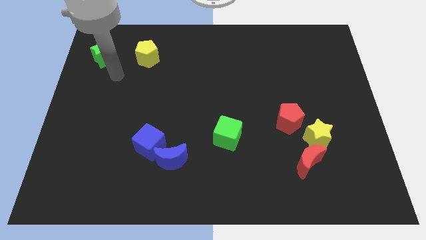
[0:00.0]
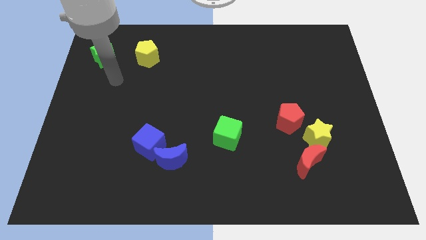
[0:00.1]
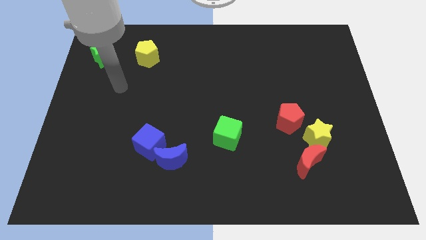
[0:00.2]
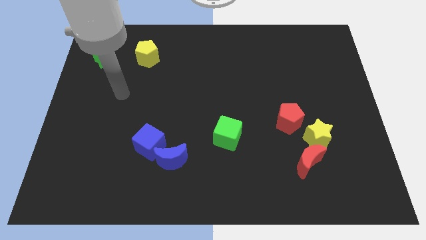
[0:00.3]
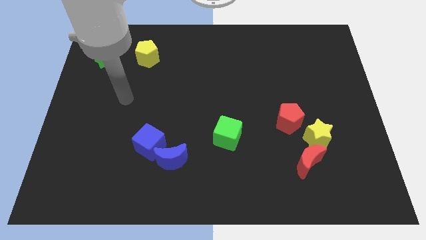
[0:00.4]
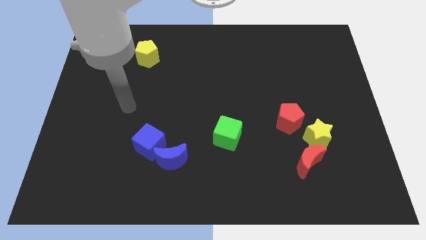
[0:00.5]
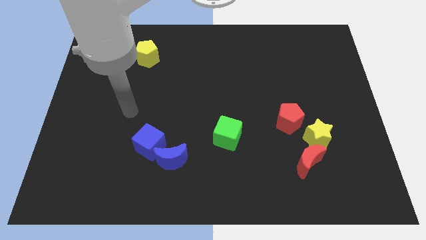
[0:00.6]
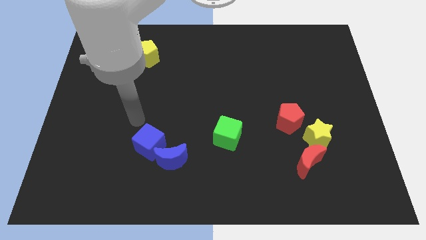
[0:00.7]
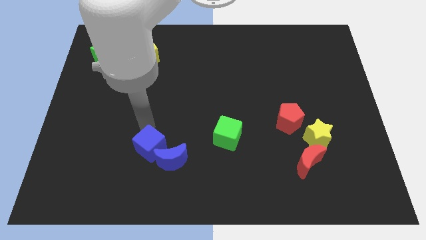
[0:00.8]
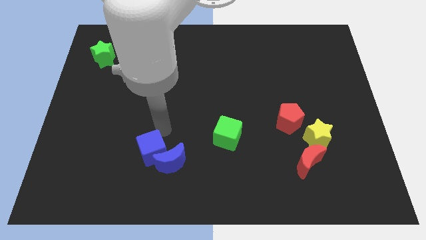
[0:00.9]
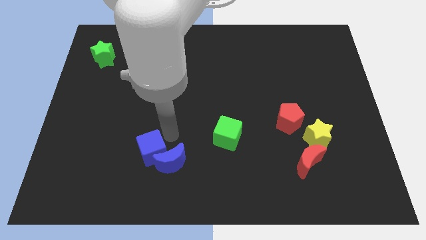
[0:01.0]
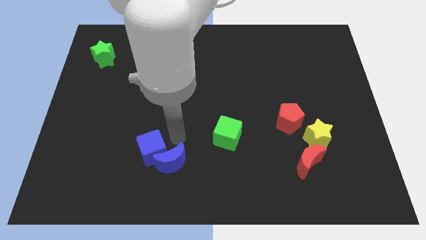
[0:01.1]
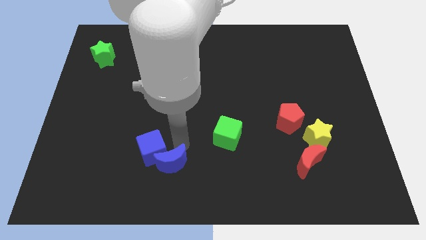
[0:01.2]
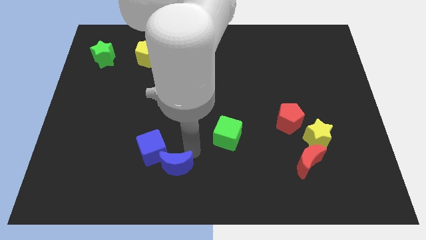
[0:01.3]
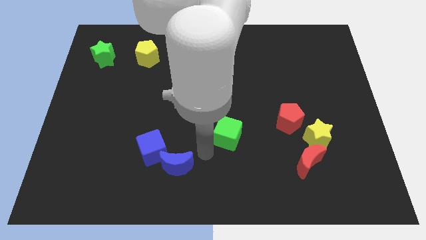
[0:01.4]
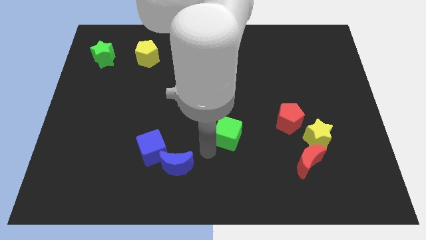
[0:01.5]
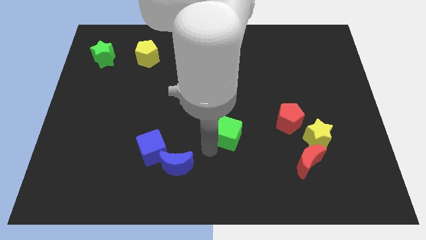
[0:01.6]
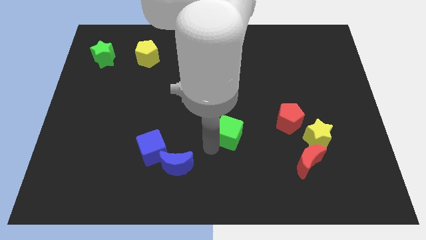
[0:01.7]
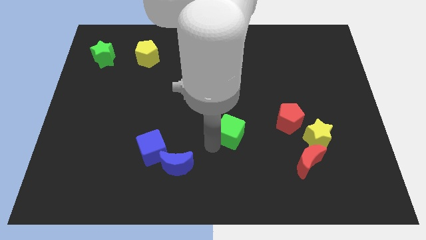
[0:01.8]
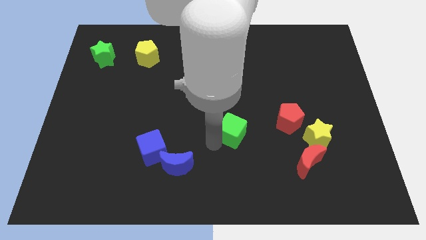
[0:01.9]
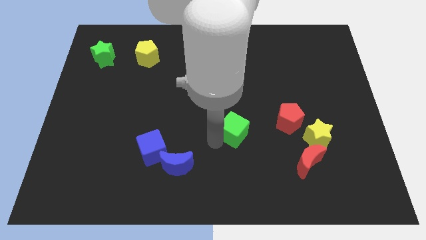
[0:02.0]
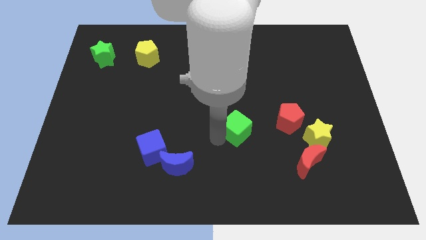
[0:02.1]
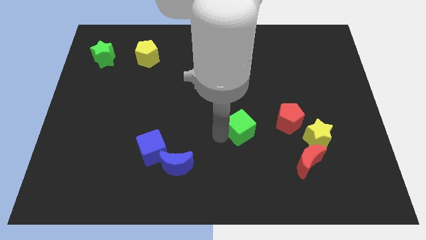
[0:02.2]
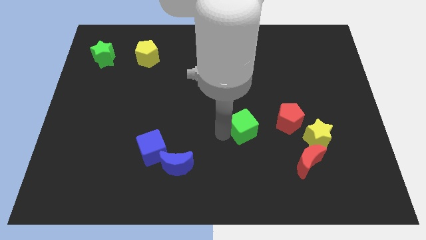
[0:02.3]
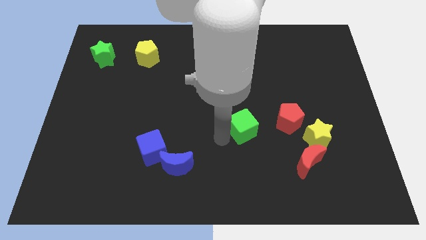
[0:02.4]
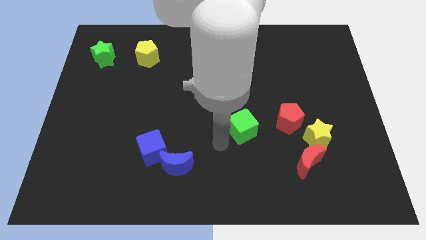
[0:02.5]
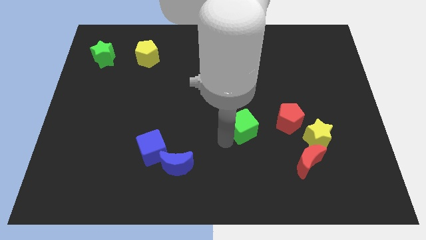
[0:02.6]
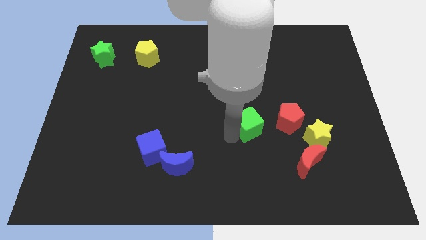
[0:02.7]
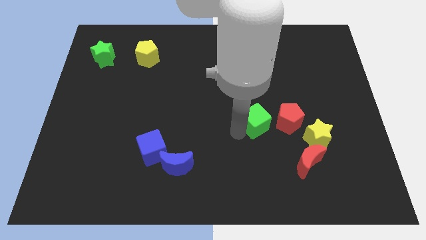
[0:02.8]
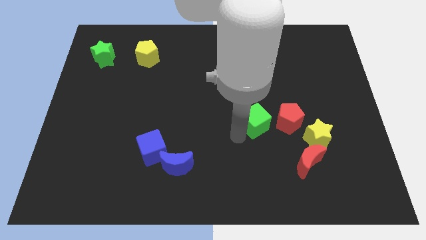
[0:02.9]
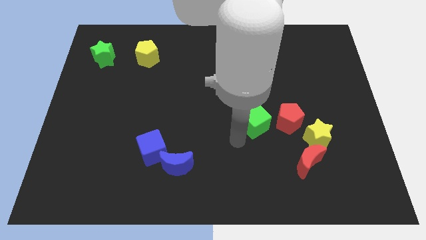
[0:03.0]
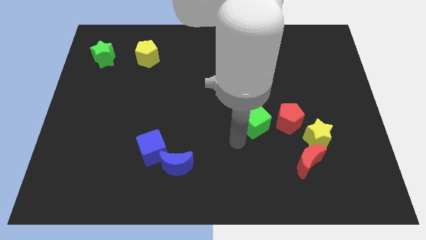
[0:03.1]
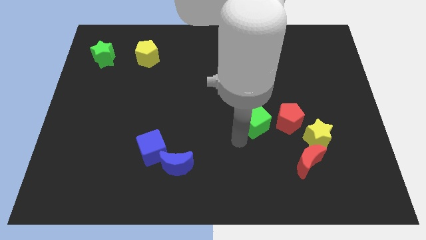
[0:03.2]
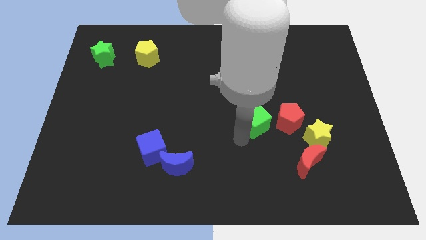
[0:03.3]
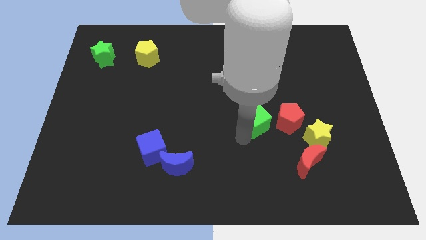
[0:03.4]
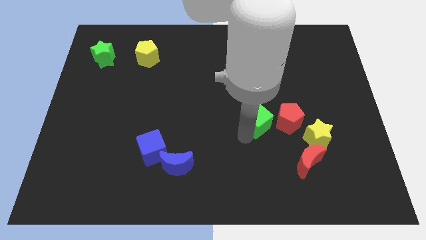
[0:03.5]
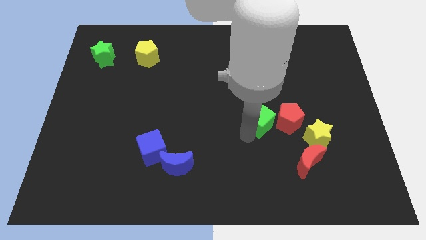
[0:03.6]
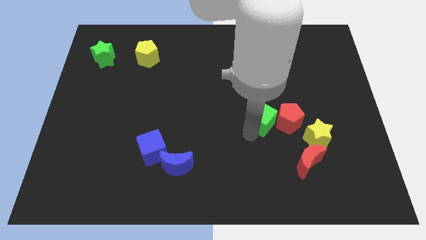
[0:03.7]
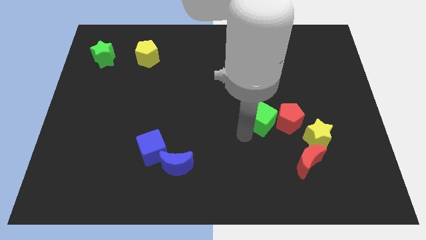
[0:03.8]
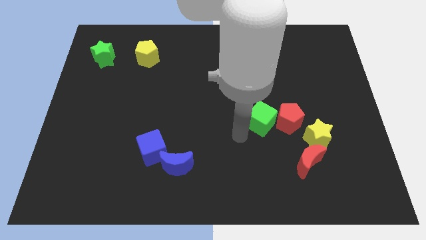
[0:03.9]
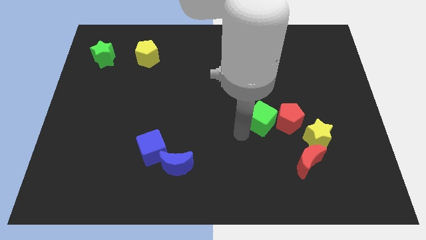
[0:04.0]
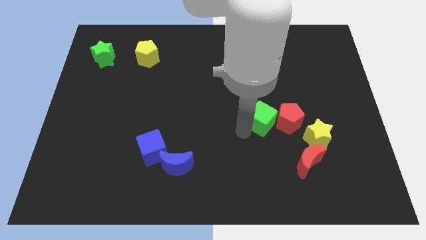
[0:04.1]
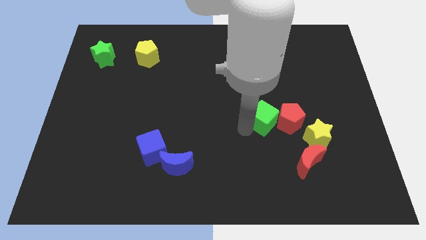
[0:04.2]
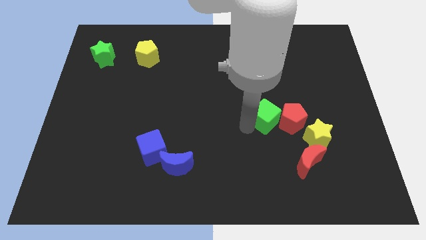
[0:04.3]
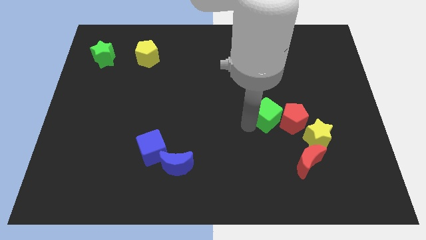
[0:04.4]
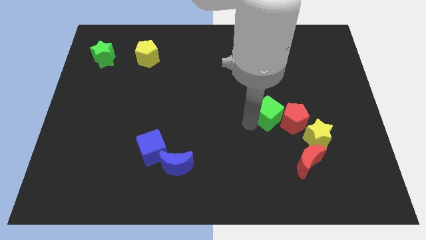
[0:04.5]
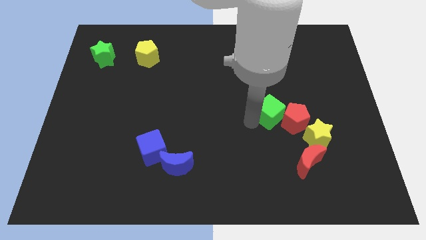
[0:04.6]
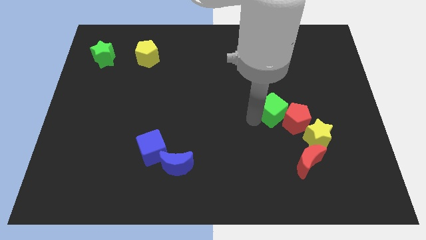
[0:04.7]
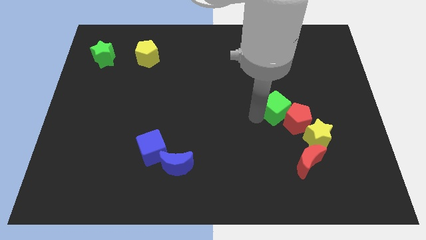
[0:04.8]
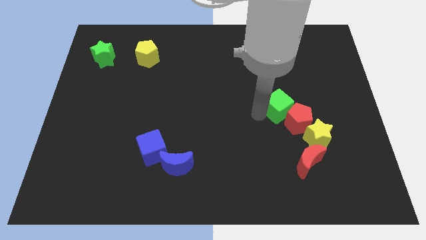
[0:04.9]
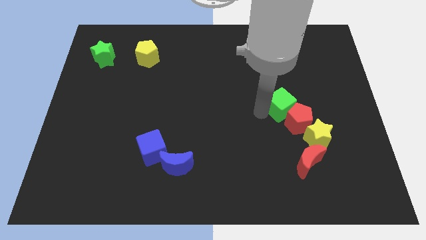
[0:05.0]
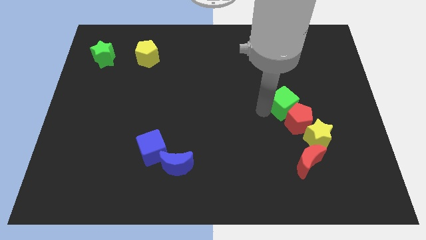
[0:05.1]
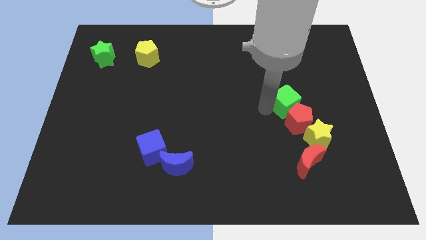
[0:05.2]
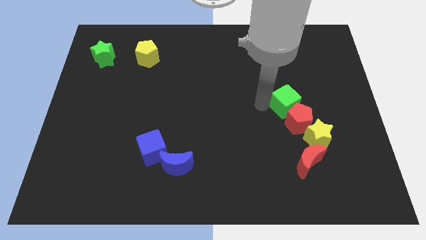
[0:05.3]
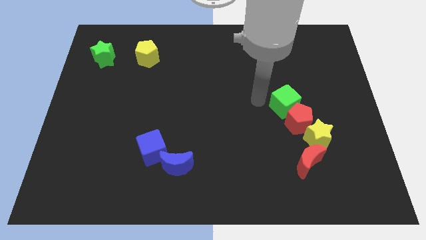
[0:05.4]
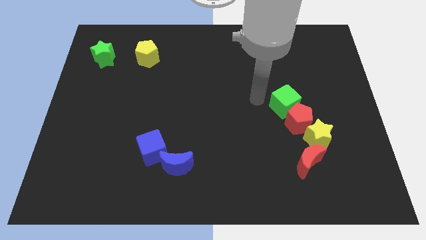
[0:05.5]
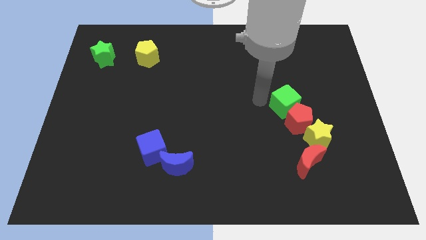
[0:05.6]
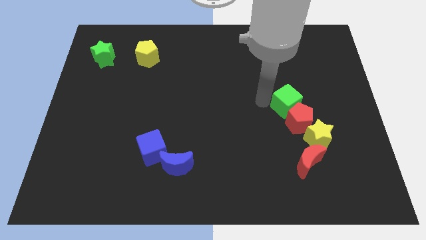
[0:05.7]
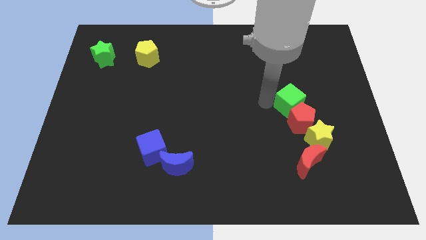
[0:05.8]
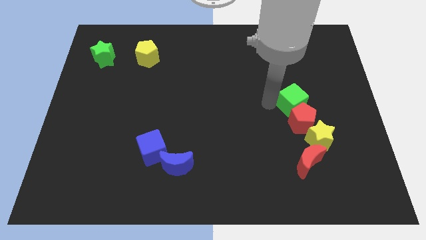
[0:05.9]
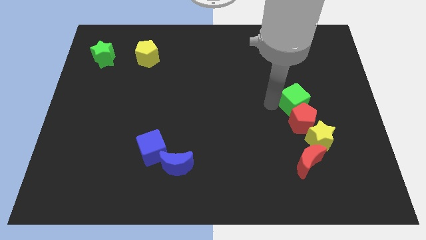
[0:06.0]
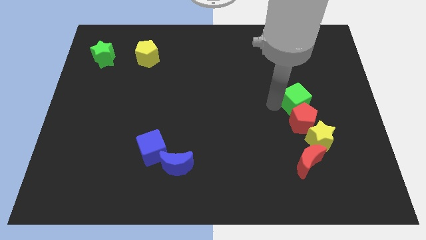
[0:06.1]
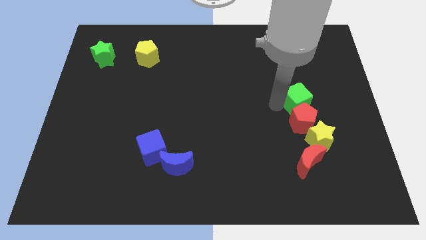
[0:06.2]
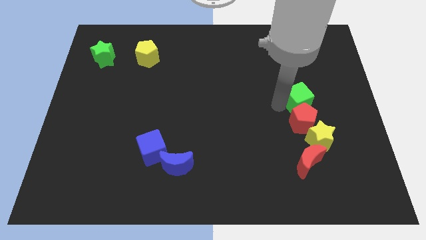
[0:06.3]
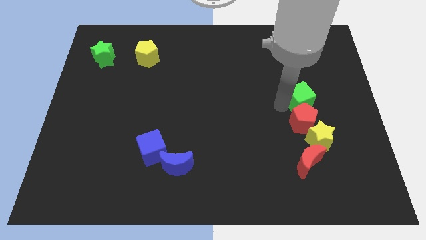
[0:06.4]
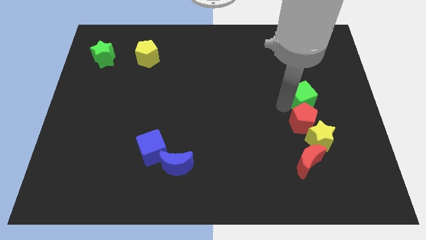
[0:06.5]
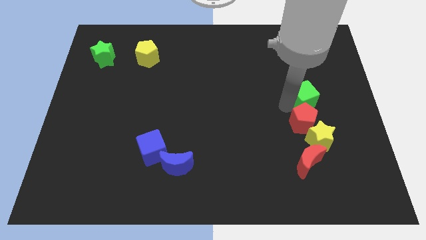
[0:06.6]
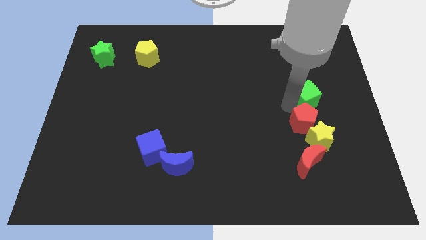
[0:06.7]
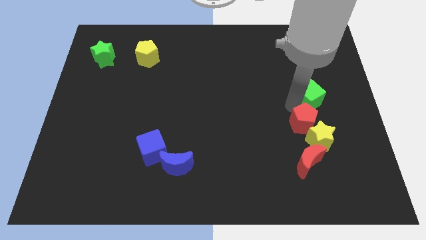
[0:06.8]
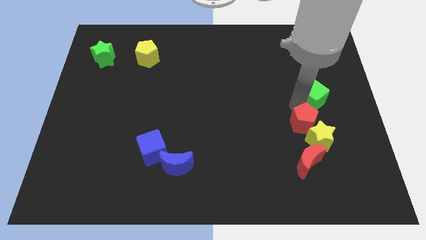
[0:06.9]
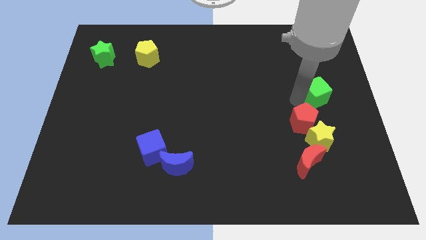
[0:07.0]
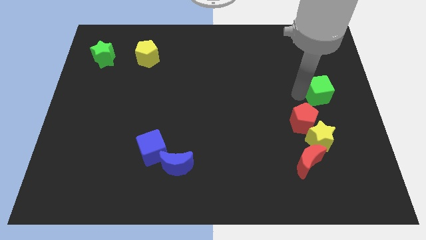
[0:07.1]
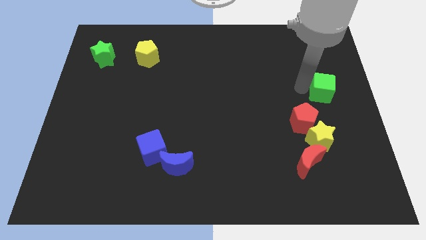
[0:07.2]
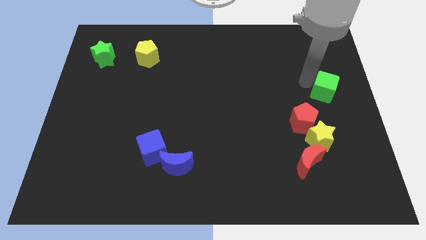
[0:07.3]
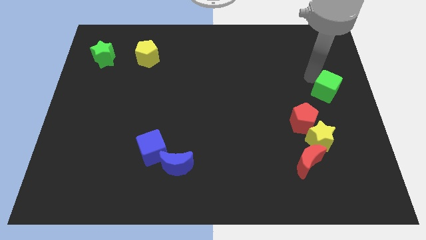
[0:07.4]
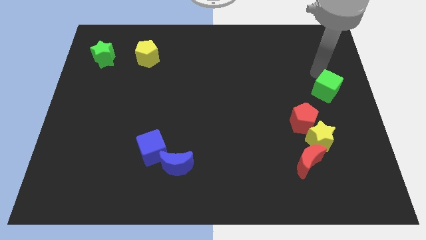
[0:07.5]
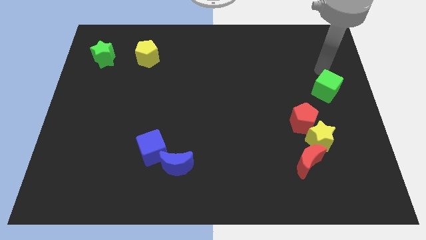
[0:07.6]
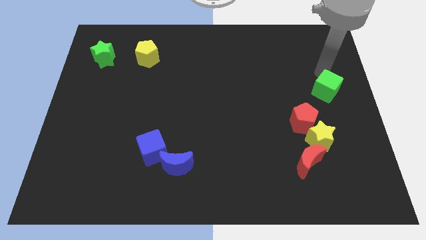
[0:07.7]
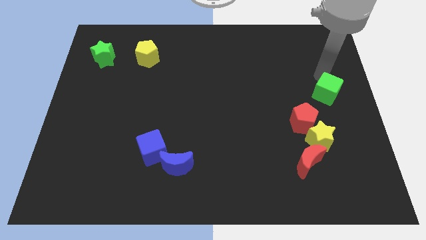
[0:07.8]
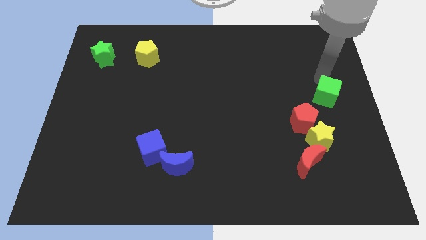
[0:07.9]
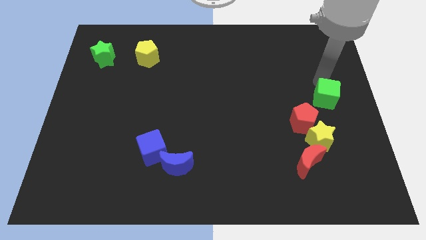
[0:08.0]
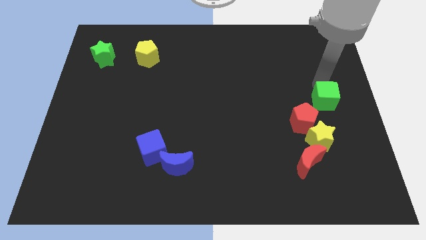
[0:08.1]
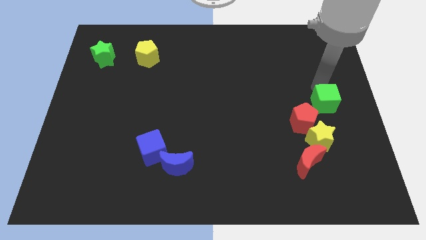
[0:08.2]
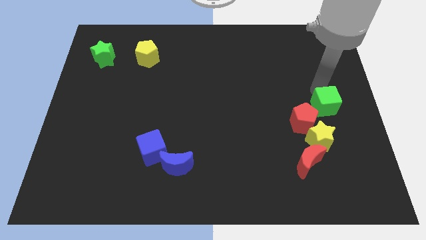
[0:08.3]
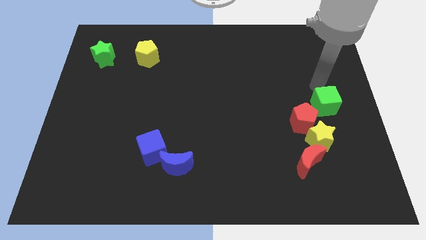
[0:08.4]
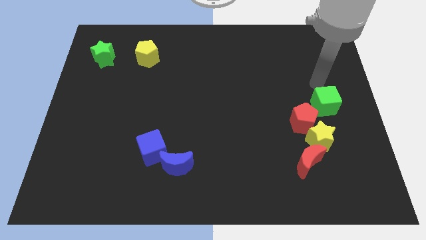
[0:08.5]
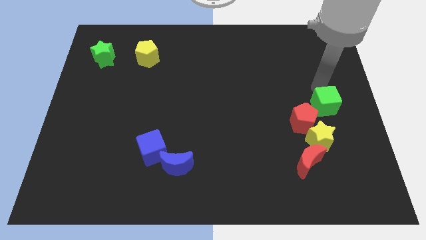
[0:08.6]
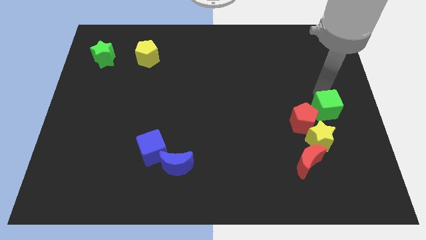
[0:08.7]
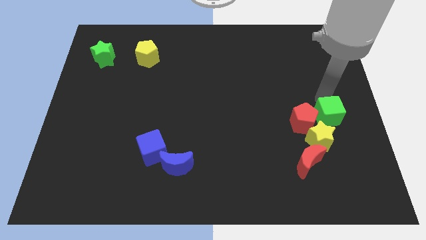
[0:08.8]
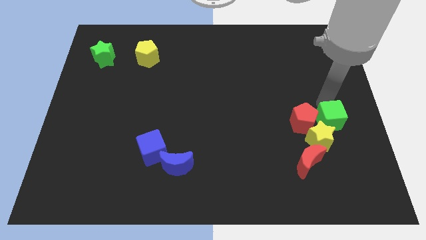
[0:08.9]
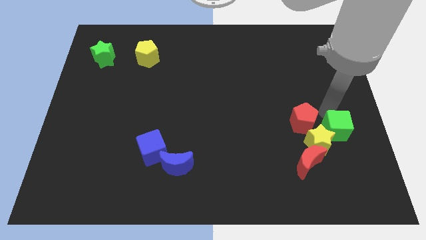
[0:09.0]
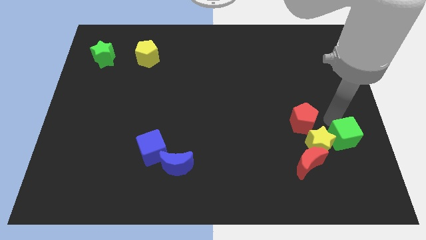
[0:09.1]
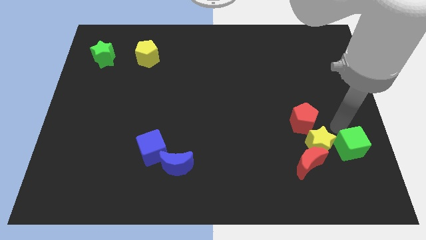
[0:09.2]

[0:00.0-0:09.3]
slide the green cube diagonally down and to the right of the yellow star
